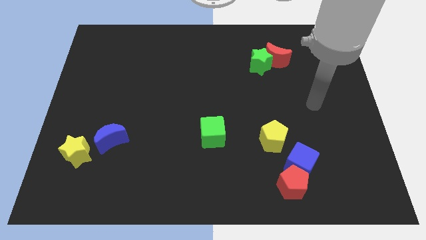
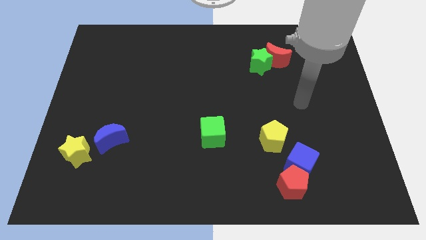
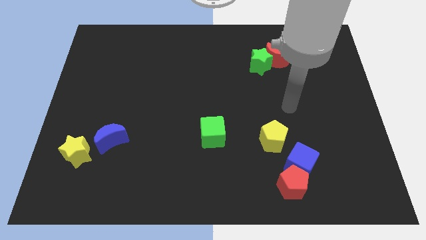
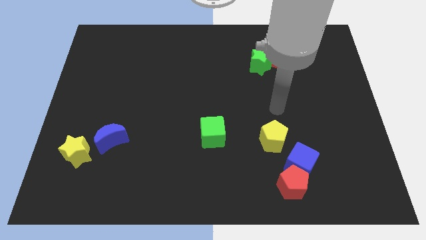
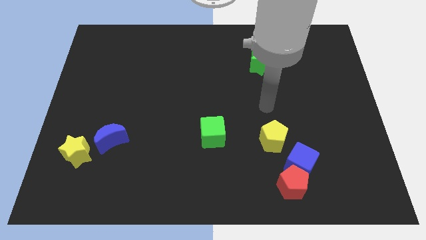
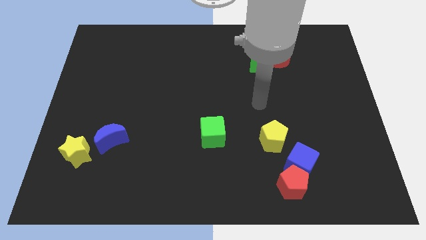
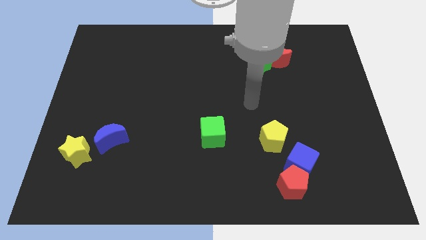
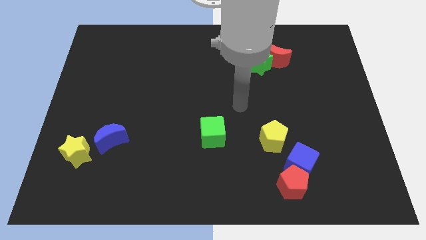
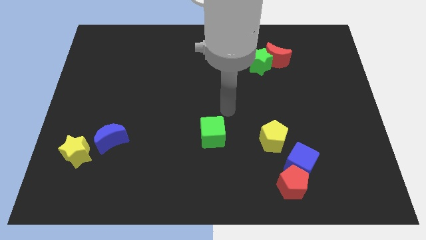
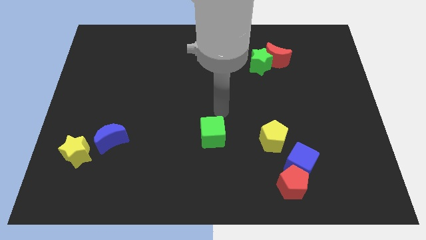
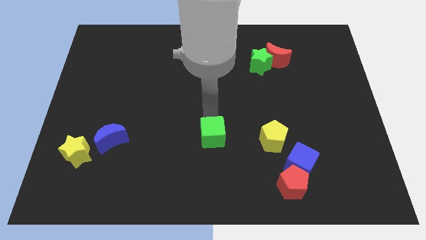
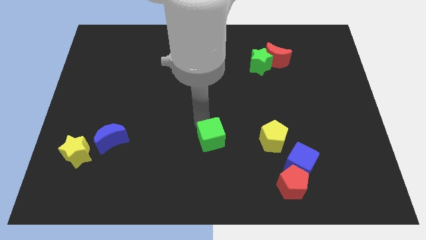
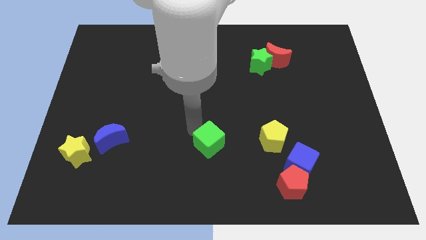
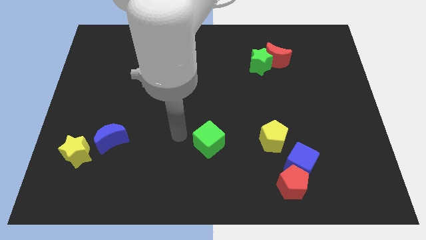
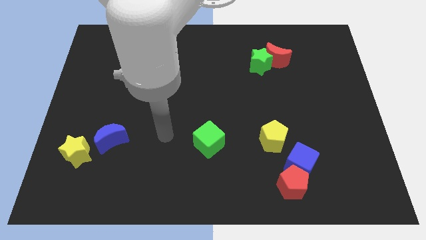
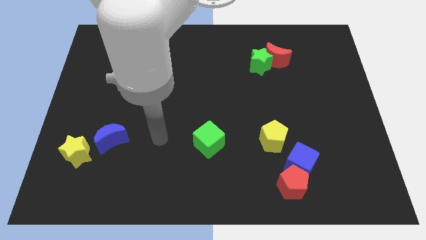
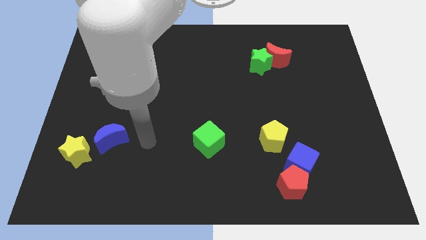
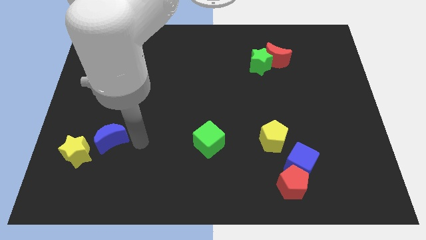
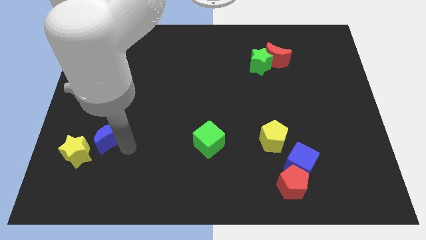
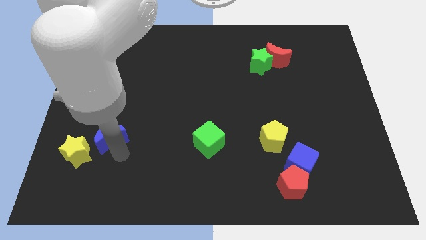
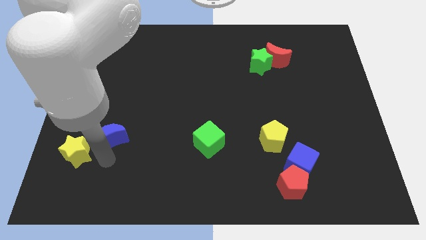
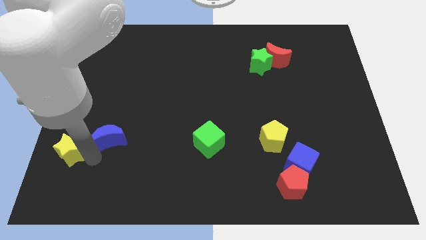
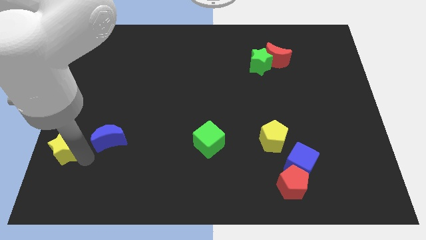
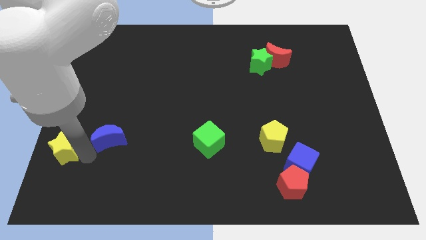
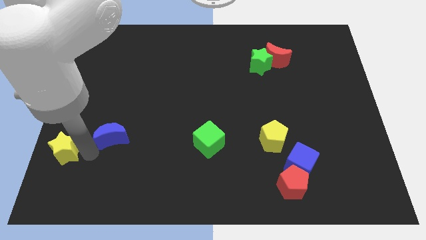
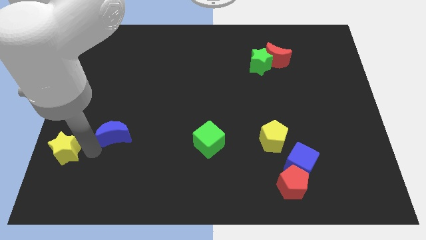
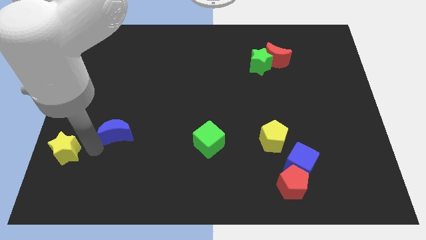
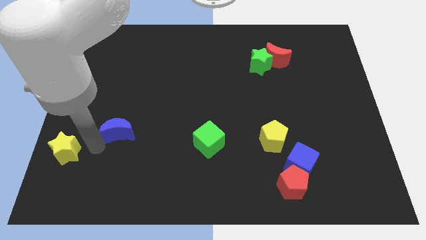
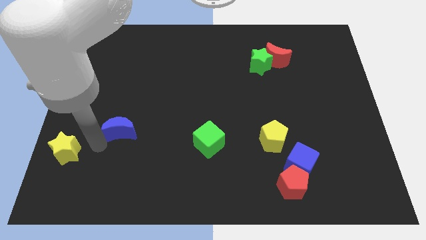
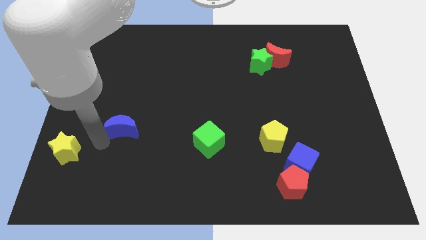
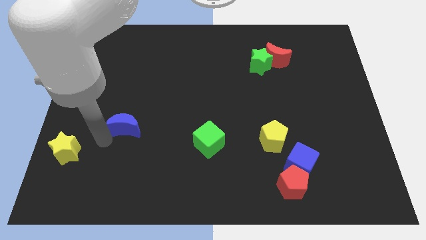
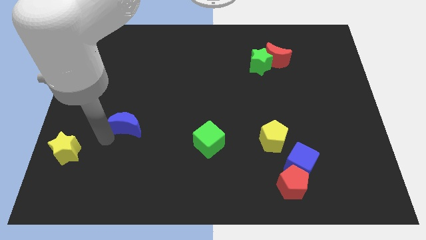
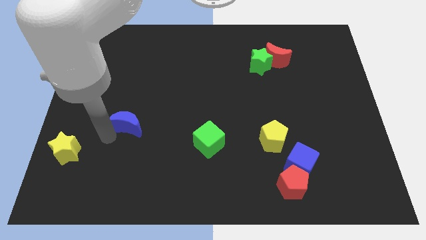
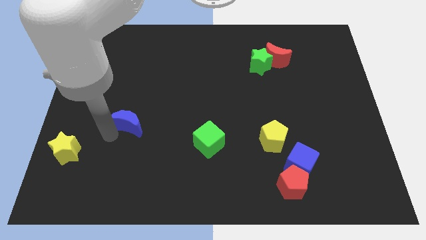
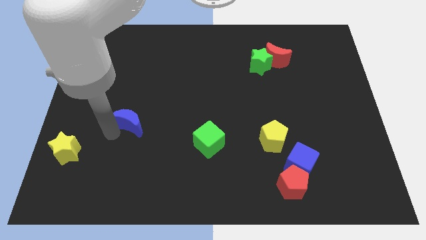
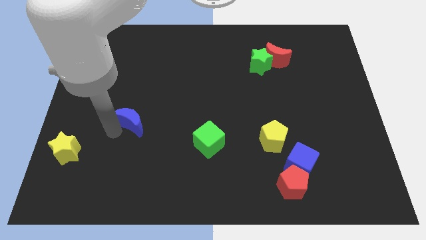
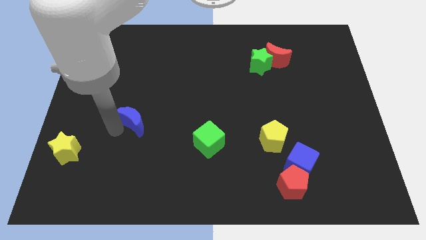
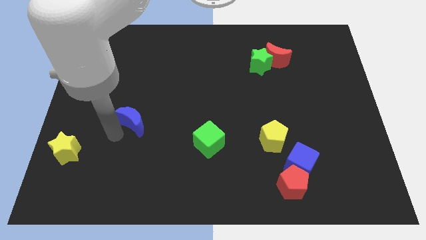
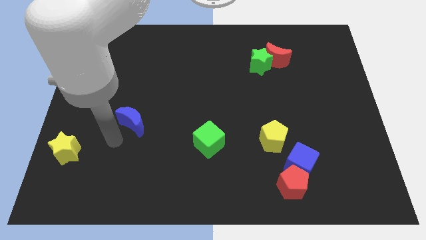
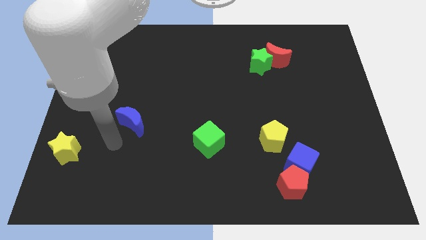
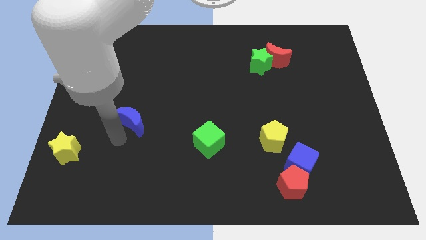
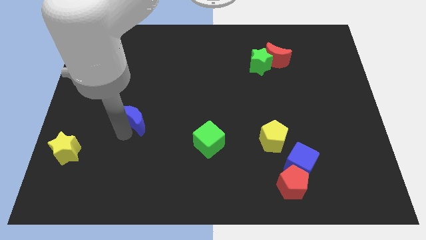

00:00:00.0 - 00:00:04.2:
slightly push the blue moon up and right

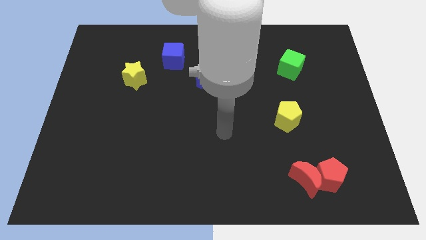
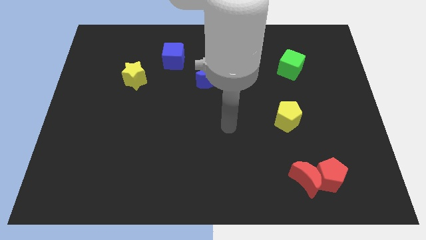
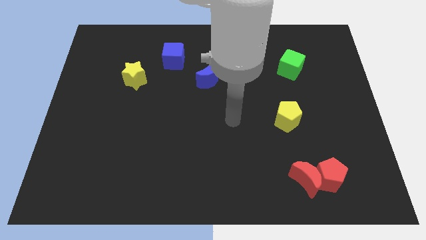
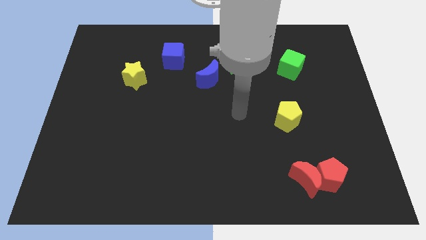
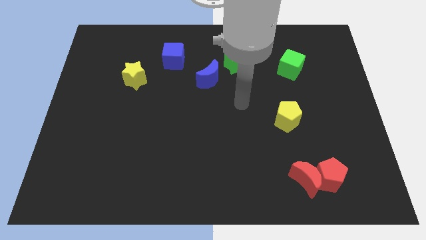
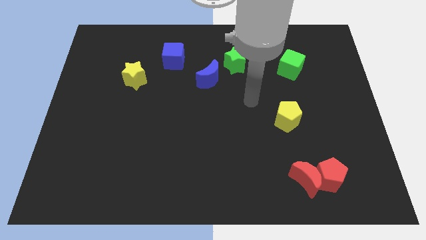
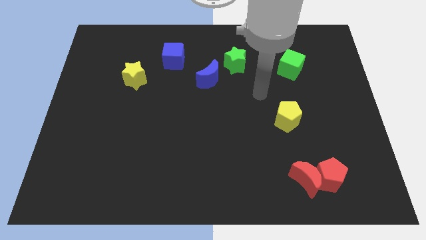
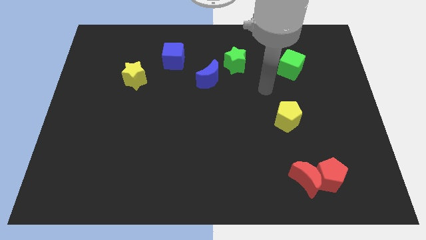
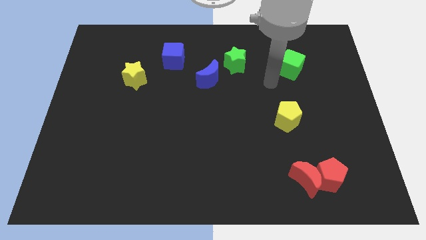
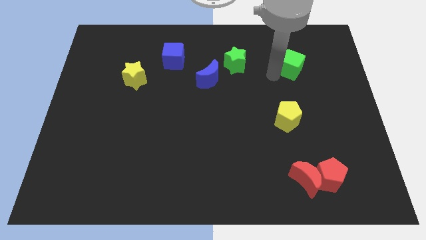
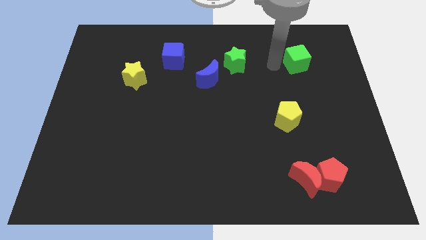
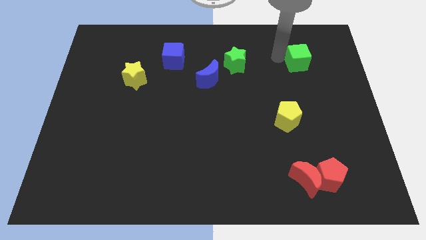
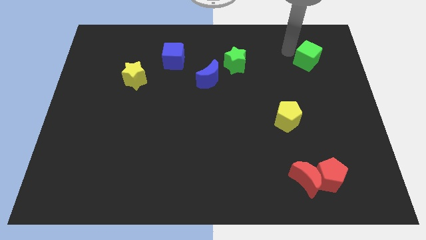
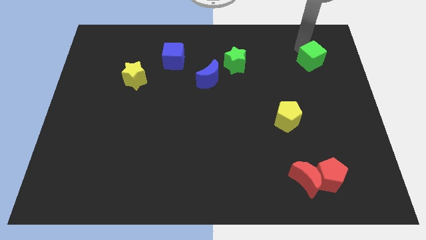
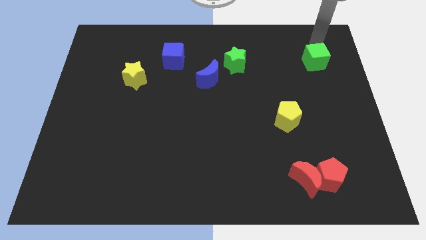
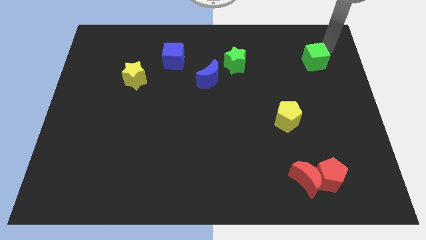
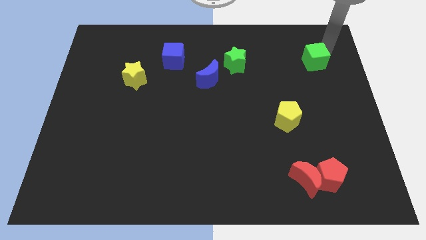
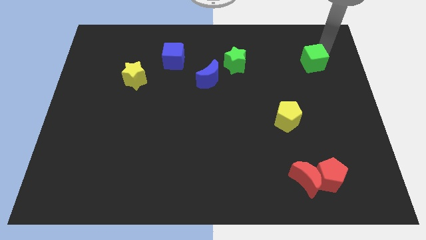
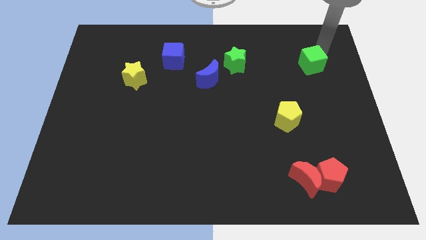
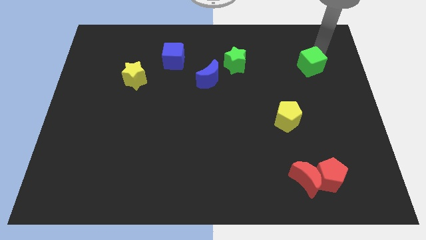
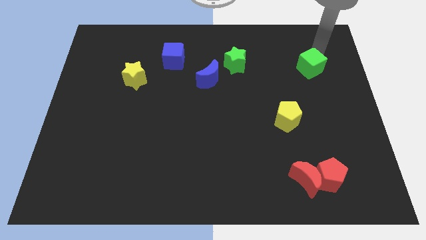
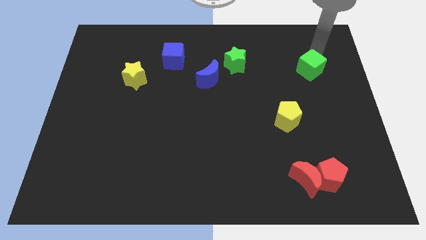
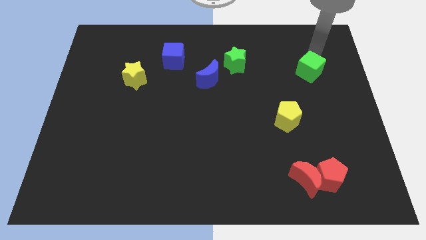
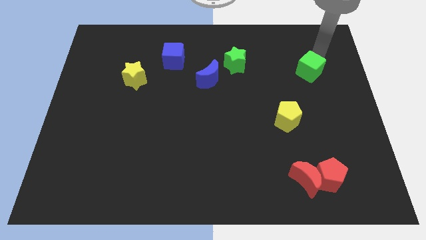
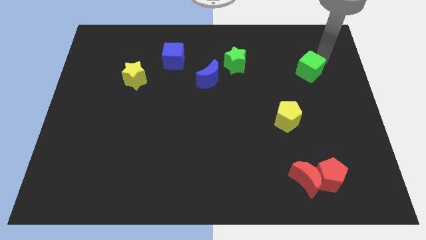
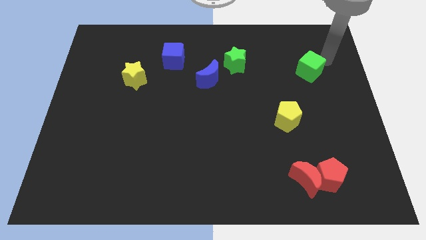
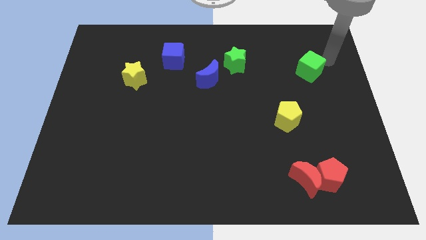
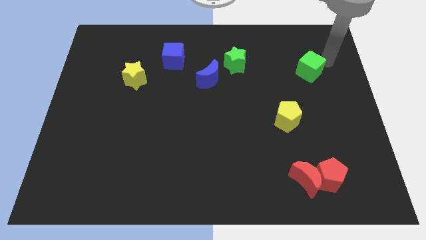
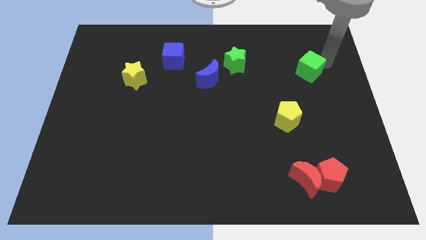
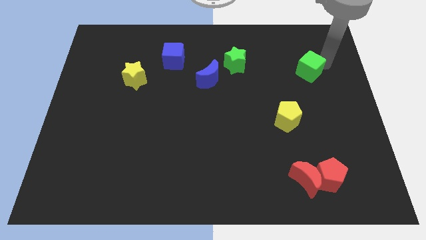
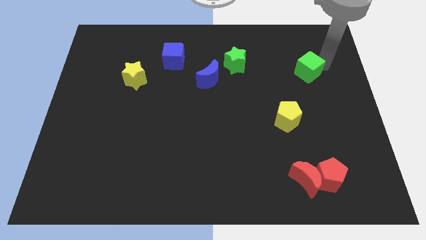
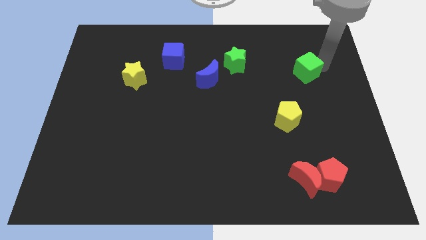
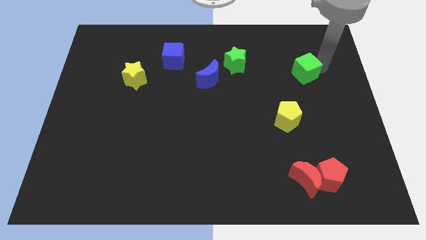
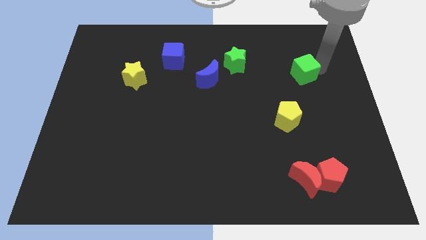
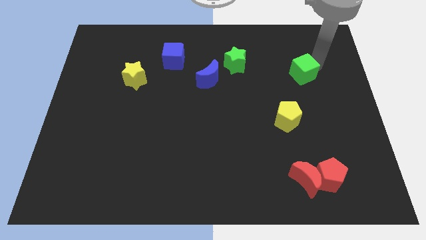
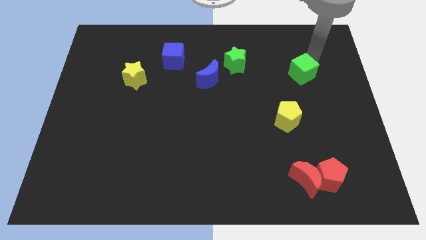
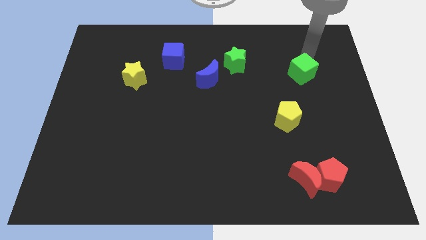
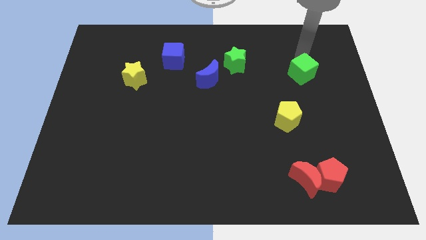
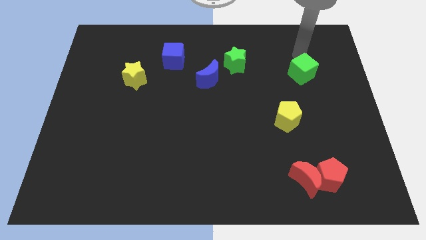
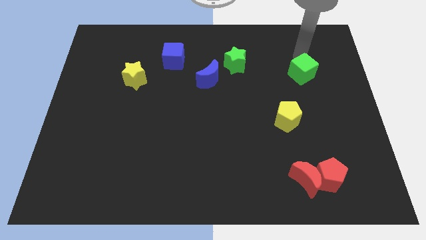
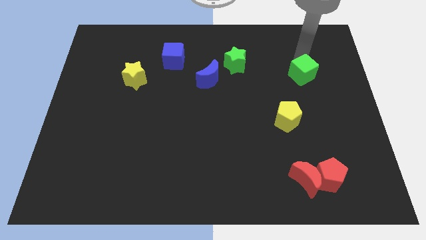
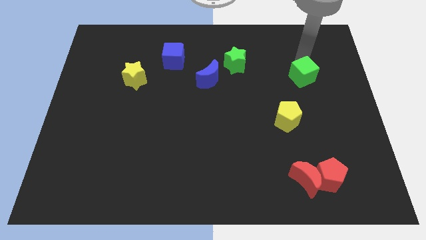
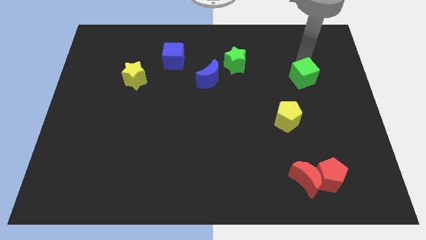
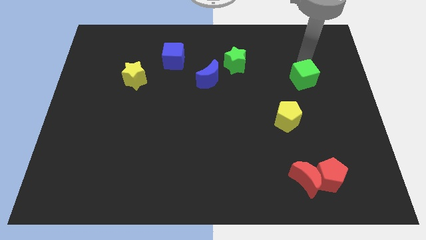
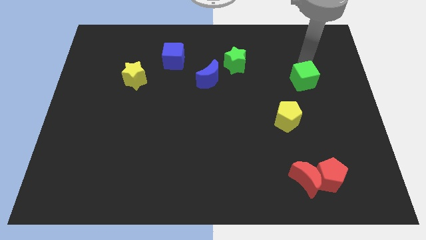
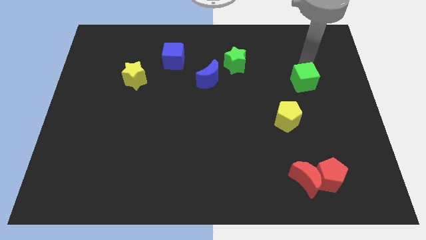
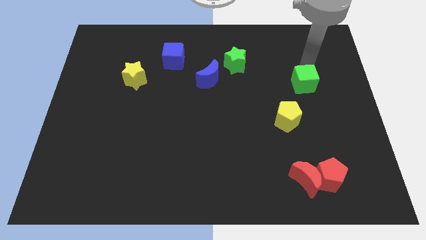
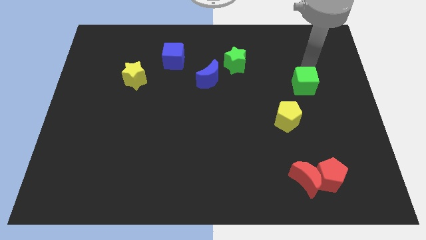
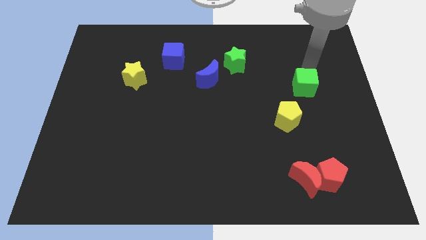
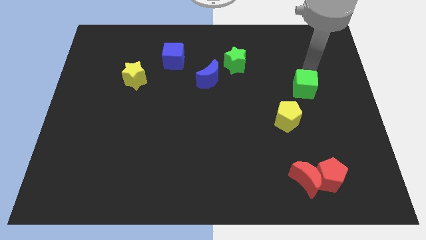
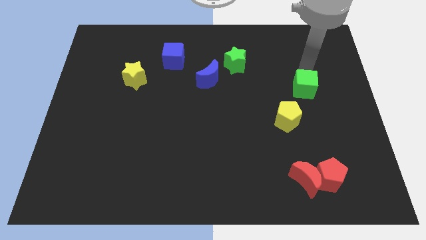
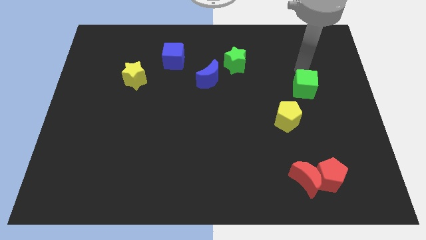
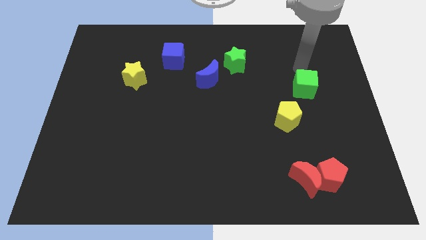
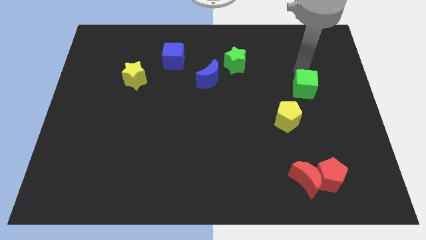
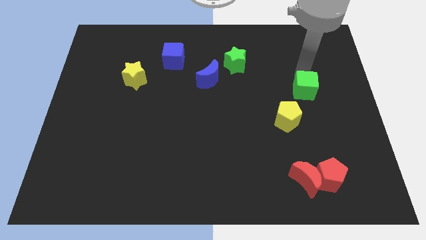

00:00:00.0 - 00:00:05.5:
slightly push the green cube downwards
